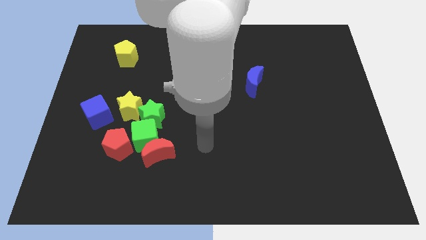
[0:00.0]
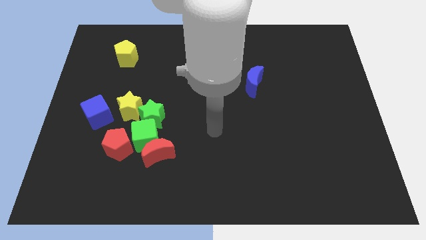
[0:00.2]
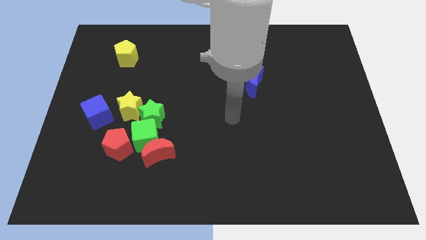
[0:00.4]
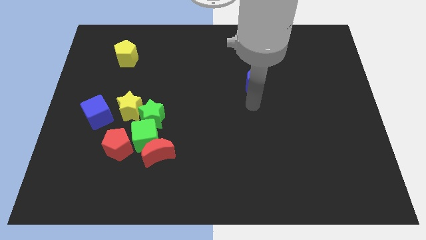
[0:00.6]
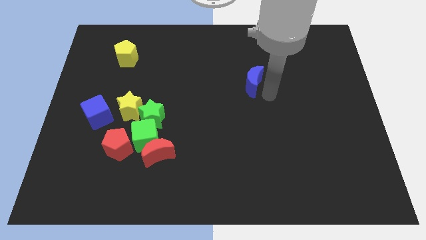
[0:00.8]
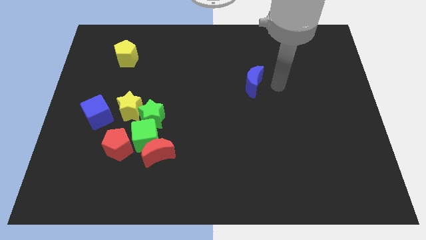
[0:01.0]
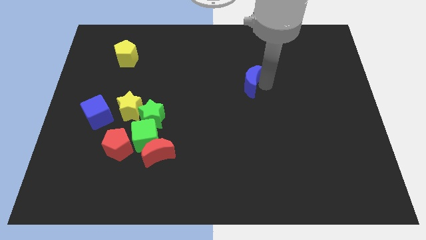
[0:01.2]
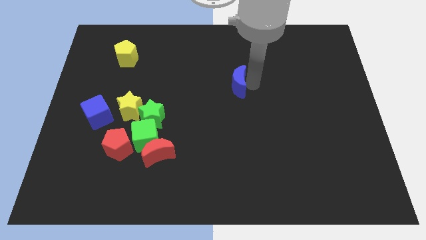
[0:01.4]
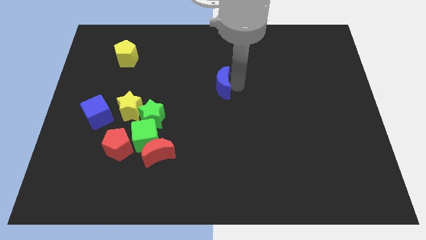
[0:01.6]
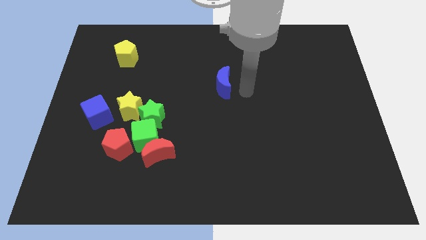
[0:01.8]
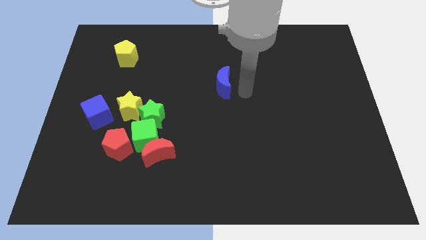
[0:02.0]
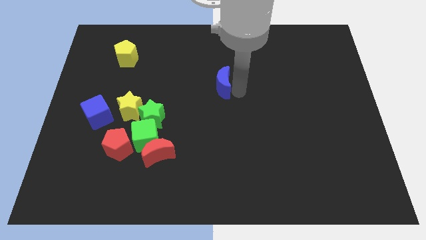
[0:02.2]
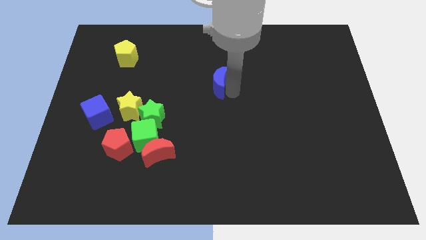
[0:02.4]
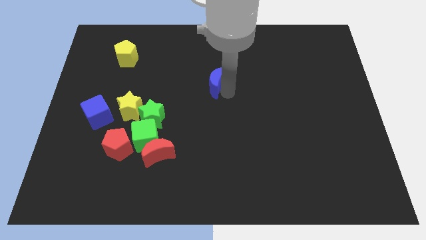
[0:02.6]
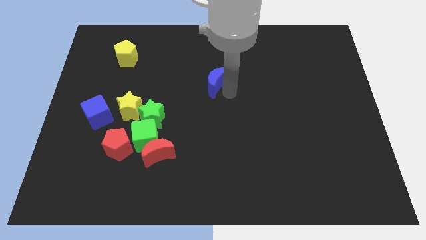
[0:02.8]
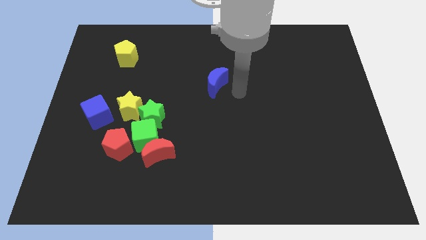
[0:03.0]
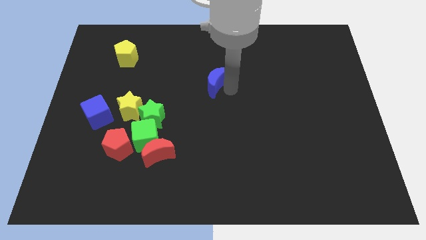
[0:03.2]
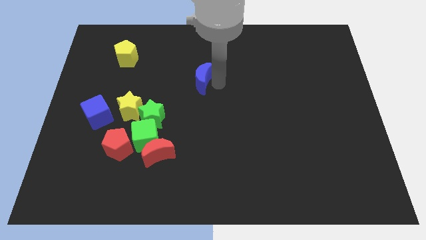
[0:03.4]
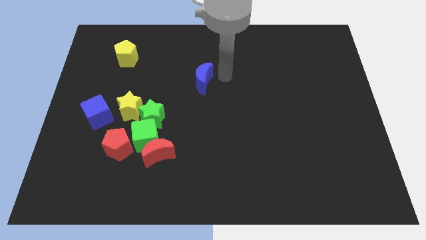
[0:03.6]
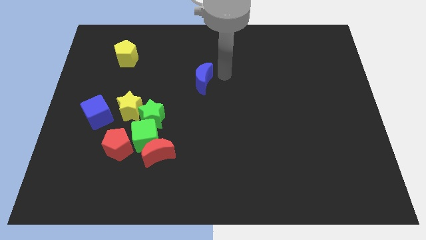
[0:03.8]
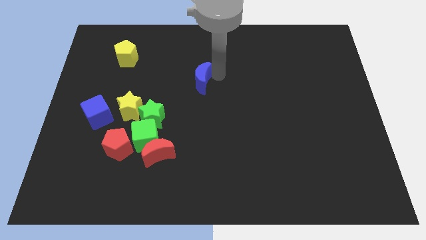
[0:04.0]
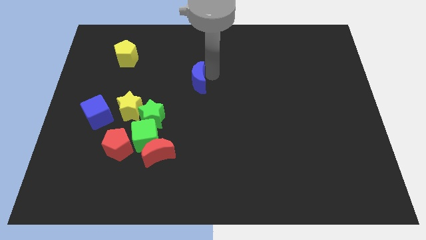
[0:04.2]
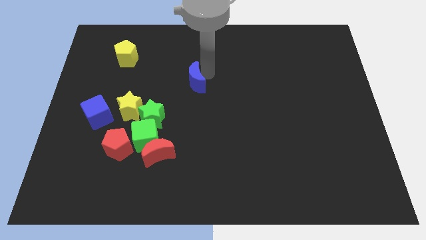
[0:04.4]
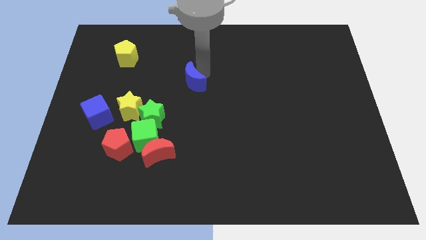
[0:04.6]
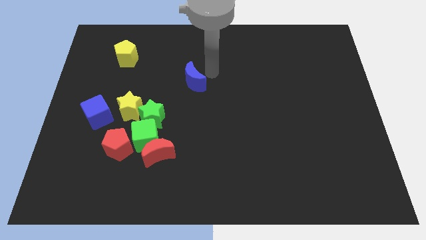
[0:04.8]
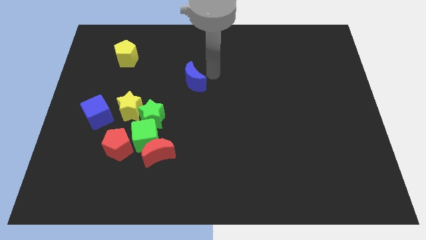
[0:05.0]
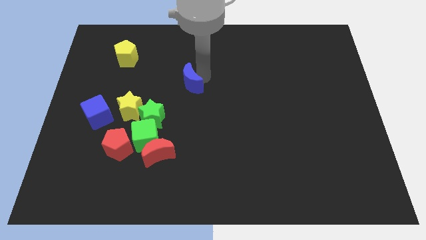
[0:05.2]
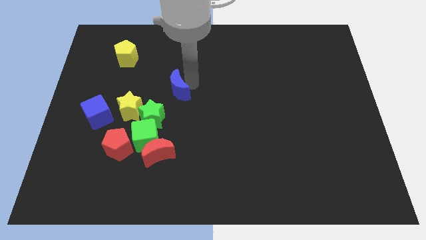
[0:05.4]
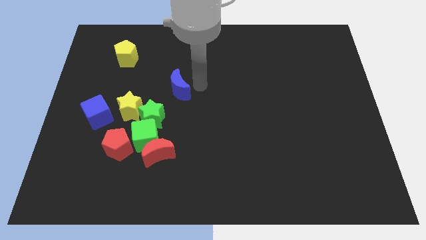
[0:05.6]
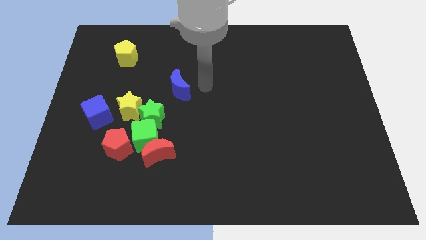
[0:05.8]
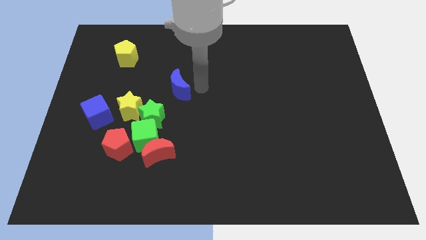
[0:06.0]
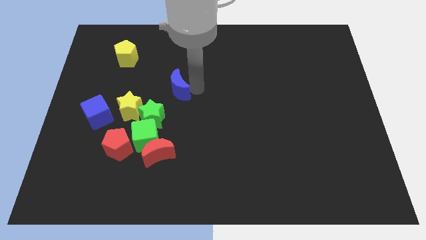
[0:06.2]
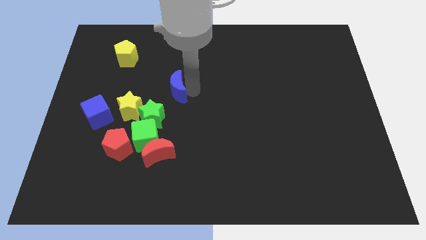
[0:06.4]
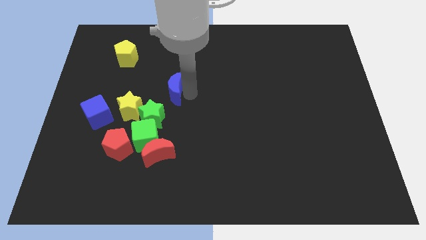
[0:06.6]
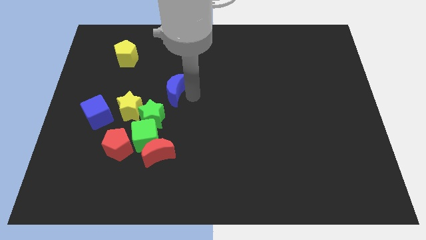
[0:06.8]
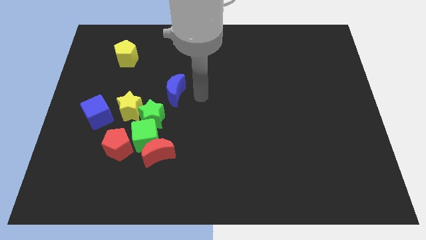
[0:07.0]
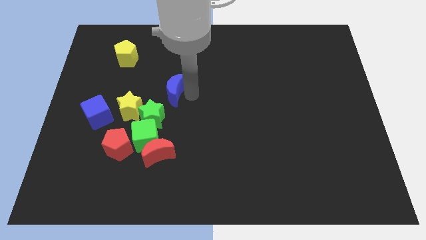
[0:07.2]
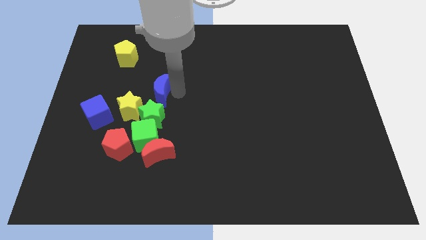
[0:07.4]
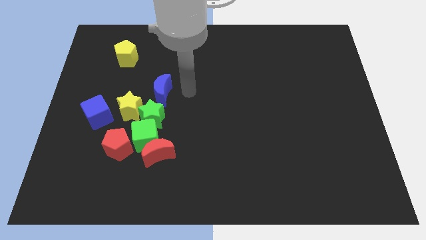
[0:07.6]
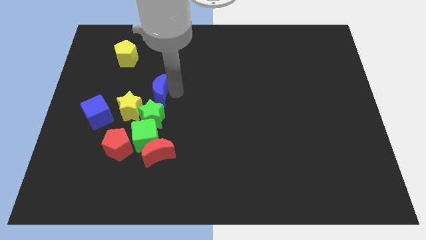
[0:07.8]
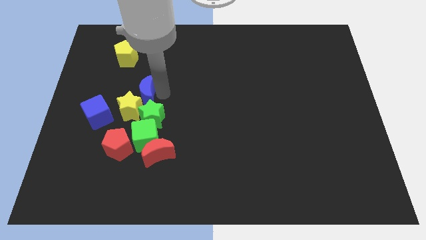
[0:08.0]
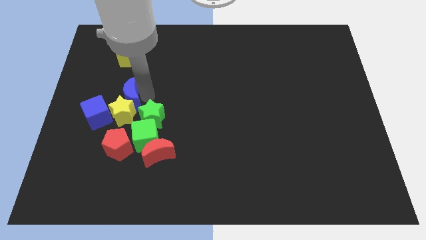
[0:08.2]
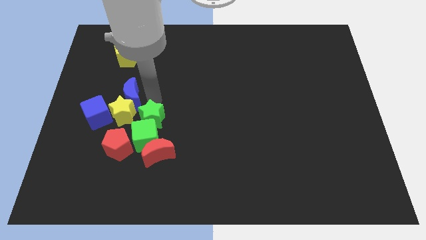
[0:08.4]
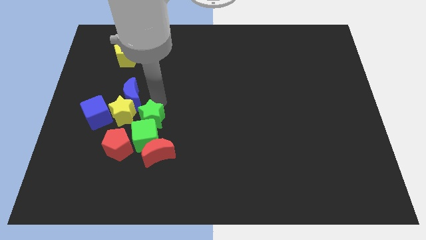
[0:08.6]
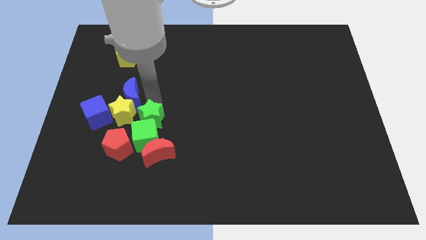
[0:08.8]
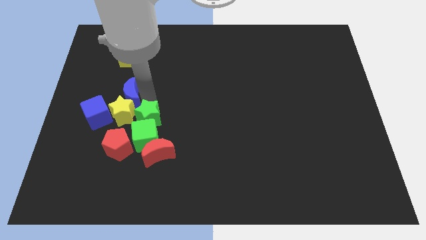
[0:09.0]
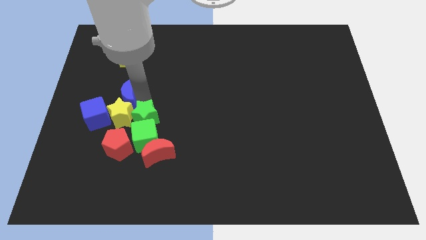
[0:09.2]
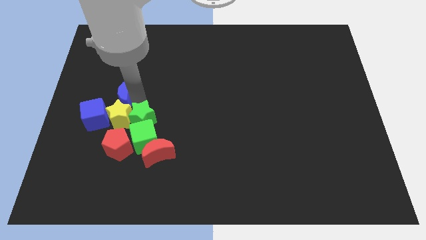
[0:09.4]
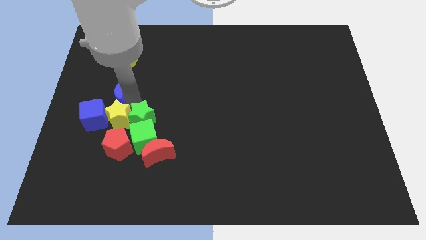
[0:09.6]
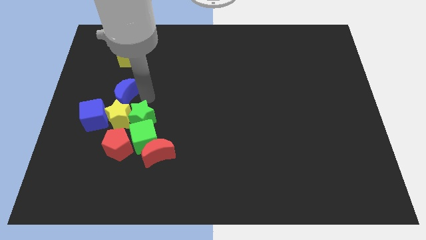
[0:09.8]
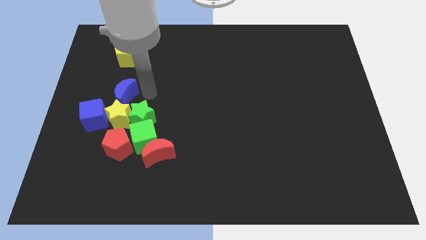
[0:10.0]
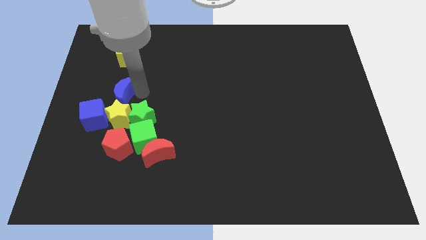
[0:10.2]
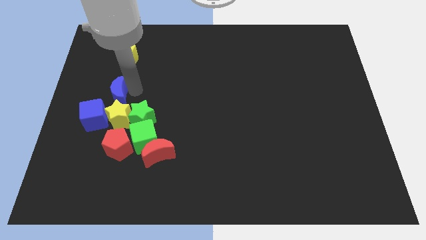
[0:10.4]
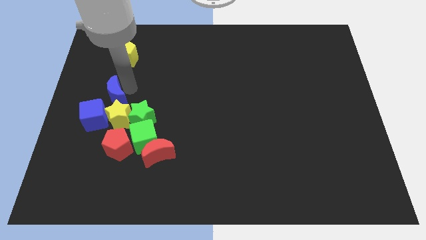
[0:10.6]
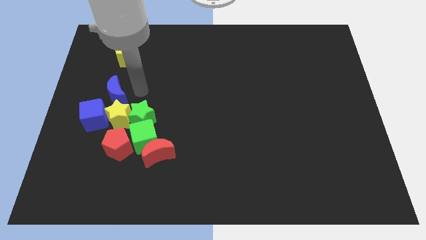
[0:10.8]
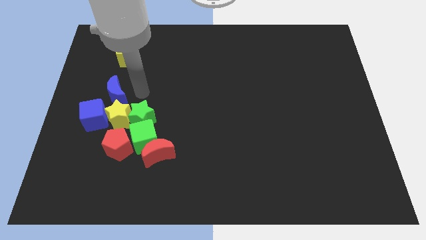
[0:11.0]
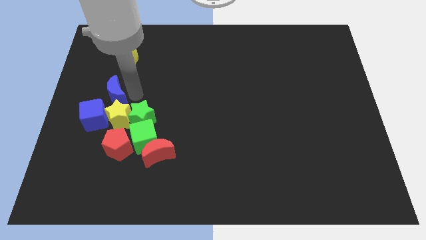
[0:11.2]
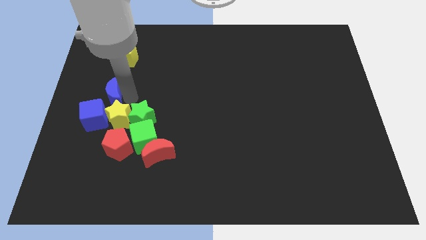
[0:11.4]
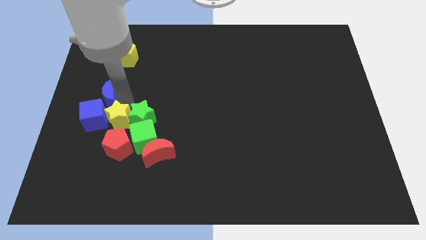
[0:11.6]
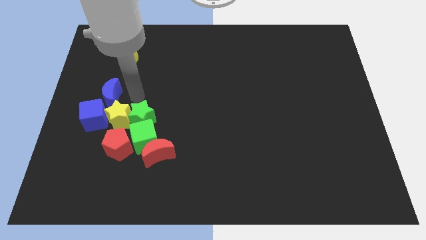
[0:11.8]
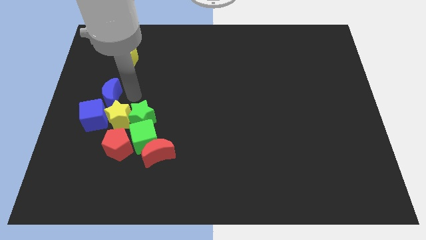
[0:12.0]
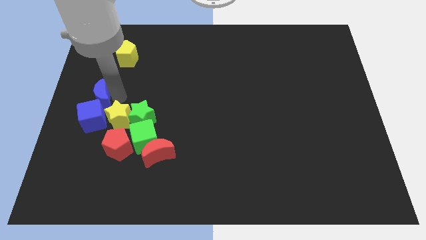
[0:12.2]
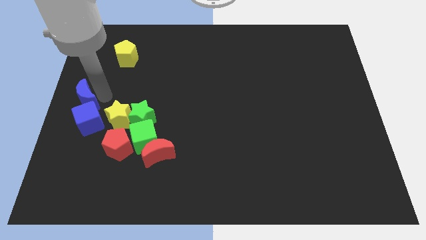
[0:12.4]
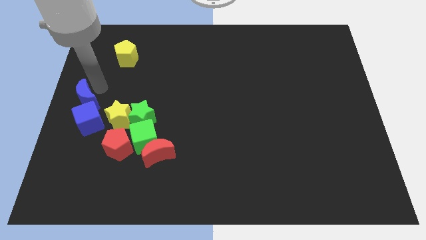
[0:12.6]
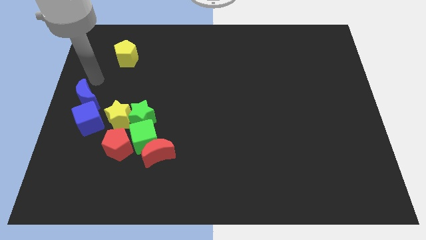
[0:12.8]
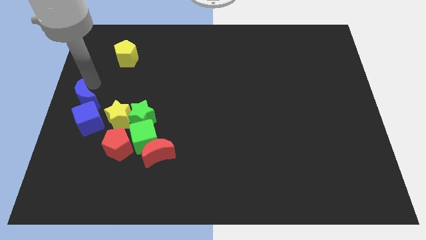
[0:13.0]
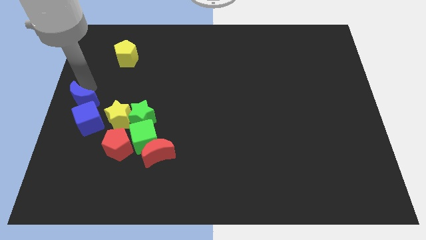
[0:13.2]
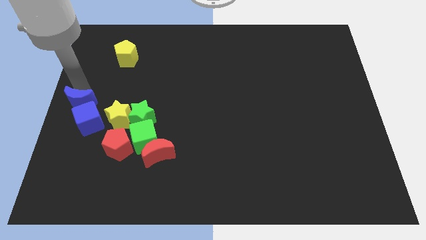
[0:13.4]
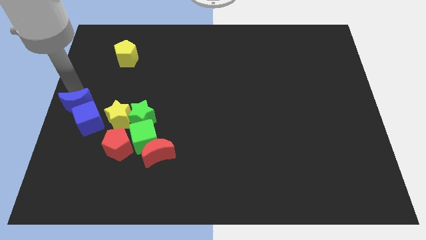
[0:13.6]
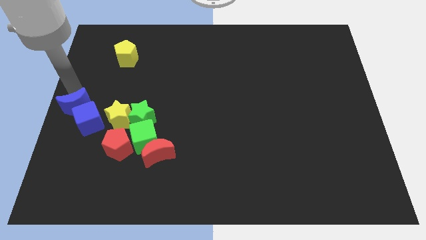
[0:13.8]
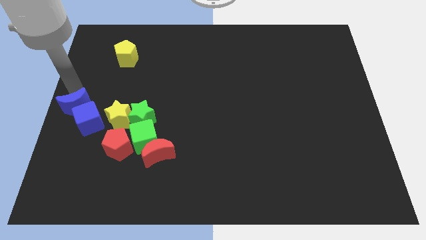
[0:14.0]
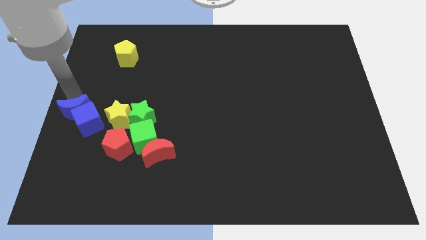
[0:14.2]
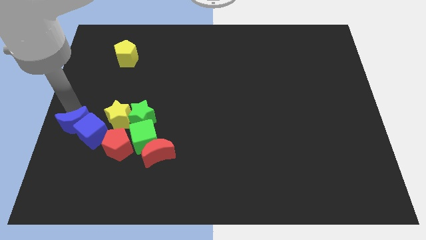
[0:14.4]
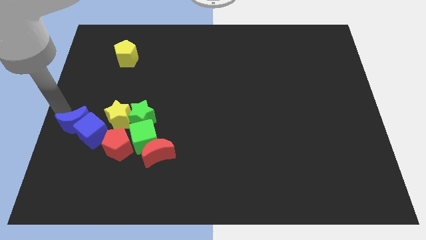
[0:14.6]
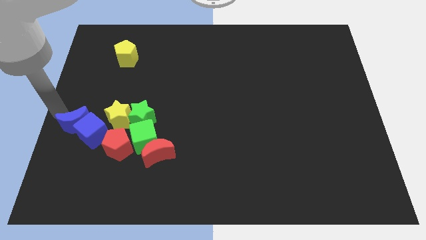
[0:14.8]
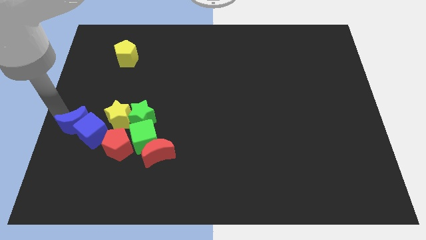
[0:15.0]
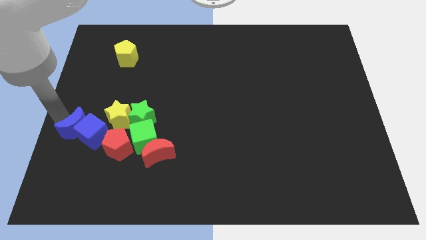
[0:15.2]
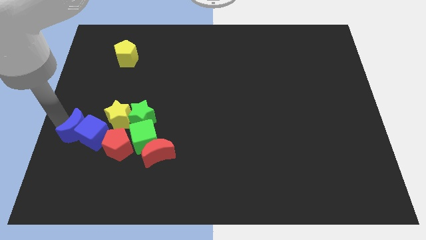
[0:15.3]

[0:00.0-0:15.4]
move the blue moon just left of the green cube
